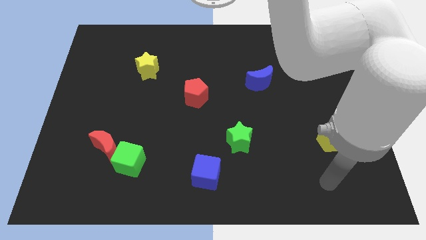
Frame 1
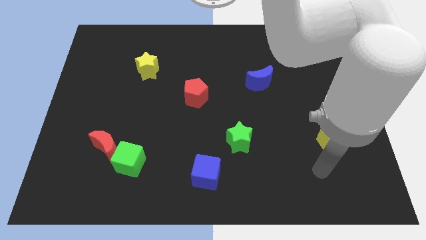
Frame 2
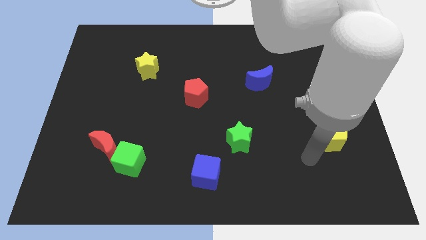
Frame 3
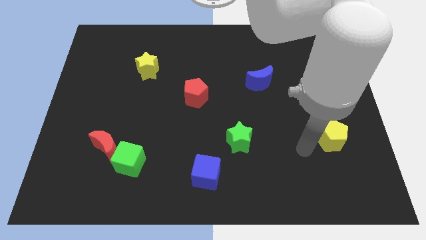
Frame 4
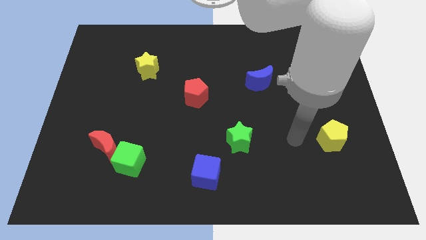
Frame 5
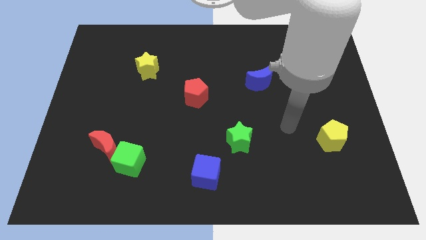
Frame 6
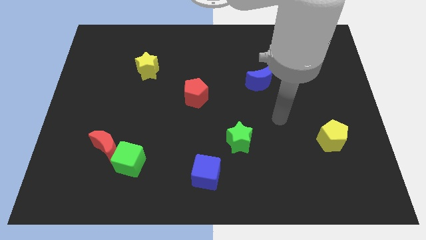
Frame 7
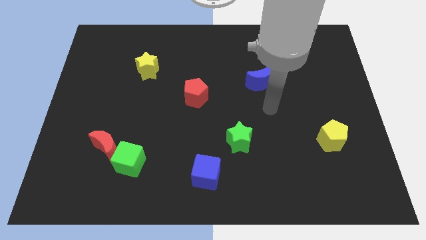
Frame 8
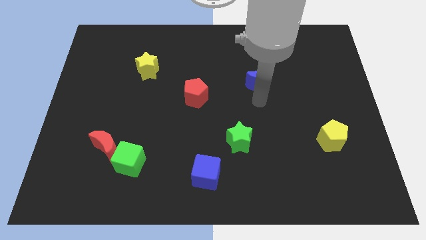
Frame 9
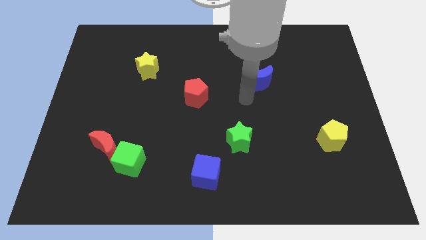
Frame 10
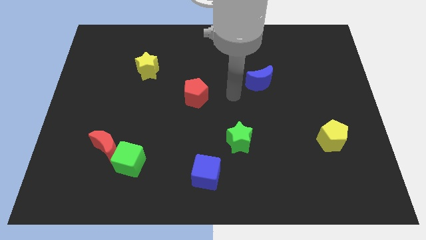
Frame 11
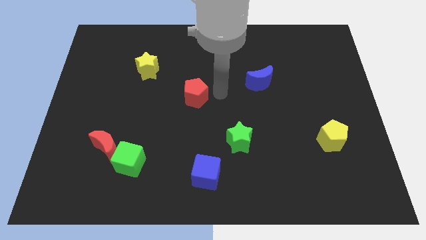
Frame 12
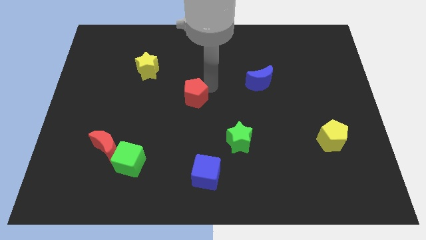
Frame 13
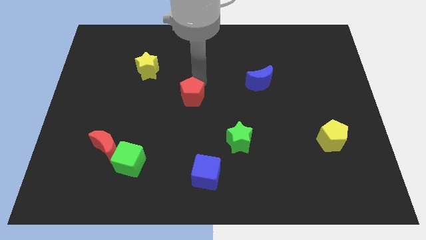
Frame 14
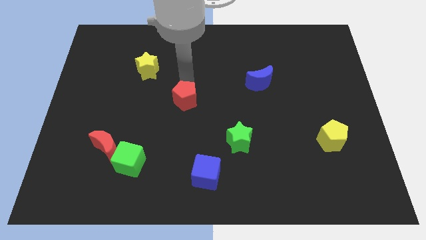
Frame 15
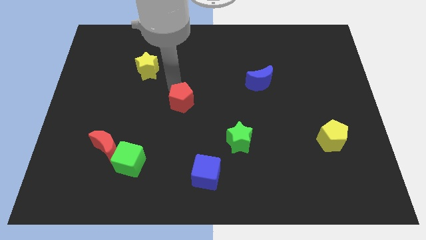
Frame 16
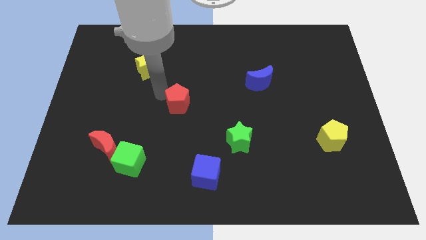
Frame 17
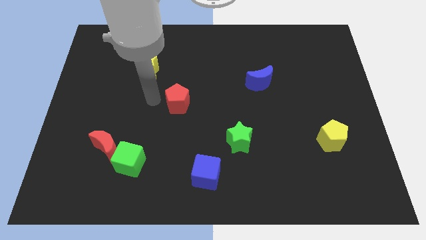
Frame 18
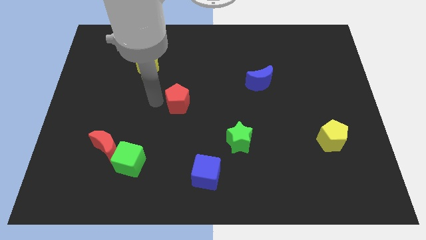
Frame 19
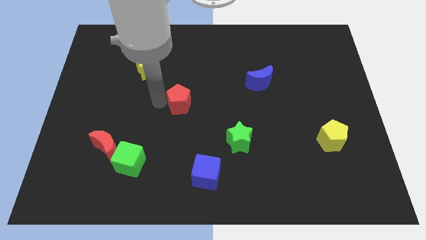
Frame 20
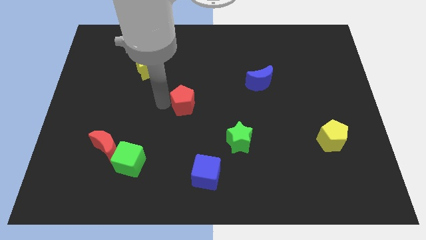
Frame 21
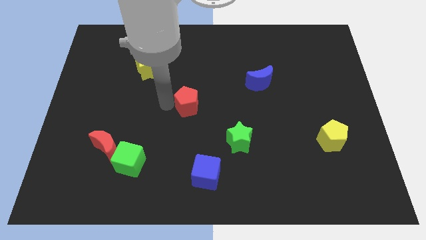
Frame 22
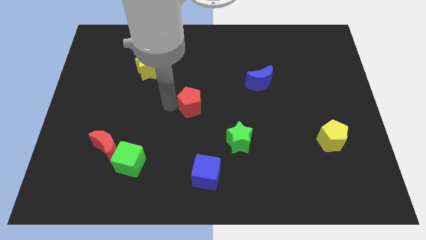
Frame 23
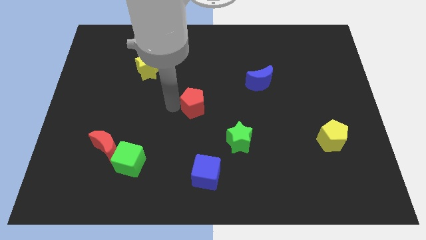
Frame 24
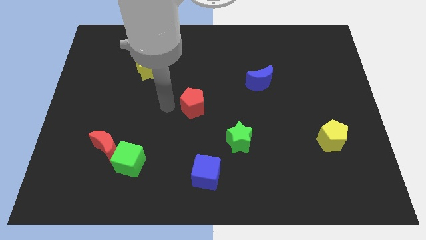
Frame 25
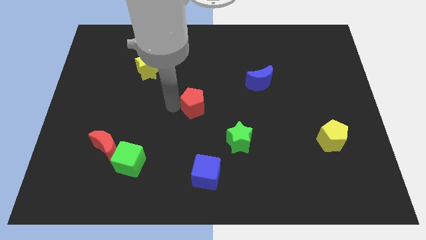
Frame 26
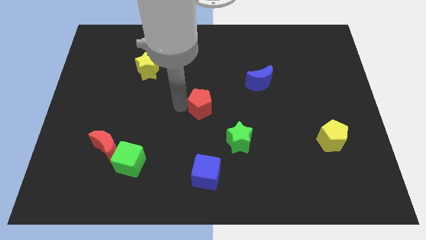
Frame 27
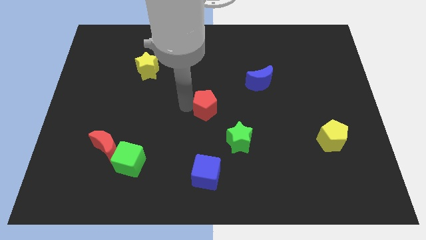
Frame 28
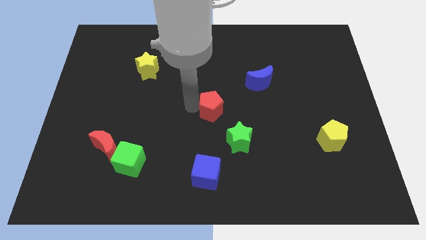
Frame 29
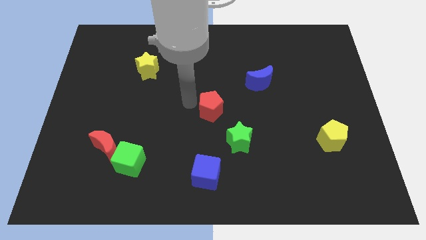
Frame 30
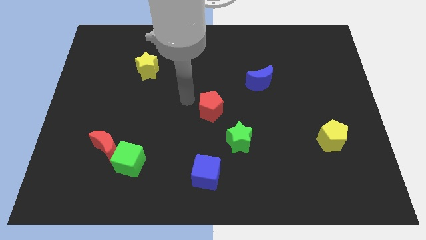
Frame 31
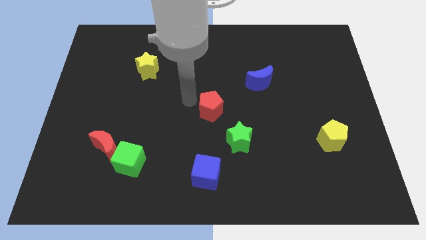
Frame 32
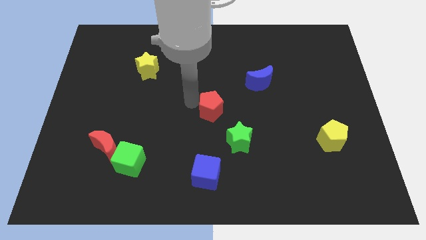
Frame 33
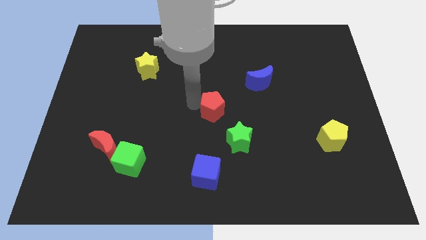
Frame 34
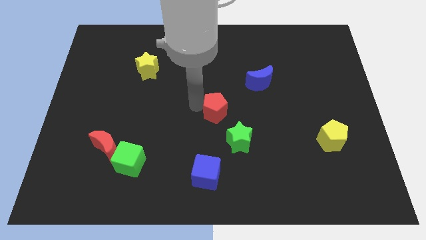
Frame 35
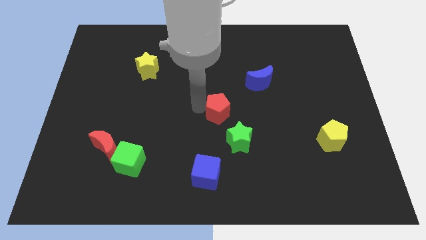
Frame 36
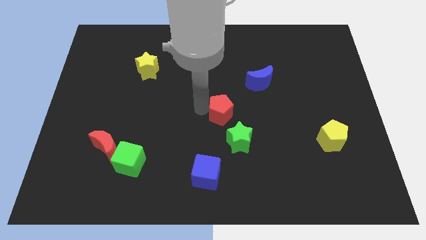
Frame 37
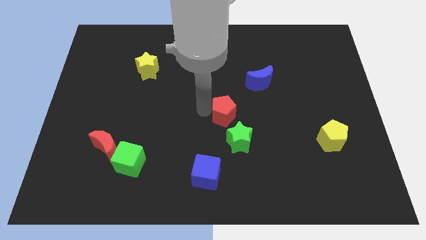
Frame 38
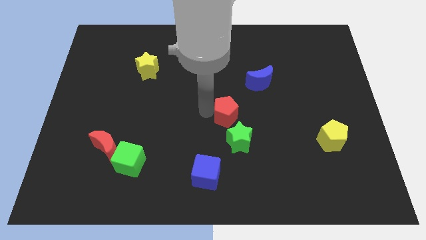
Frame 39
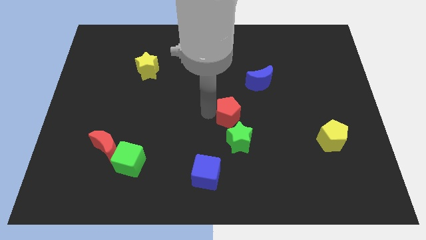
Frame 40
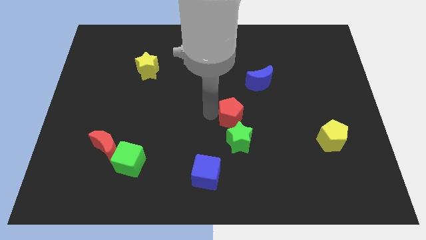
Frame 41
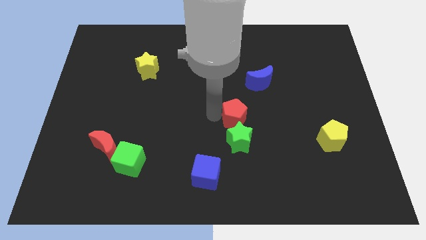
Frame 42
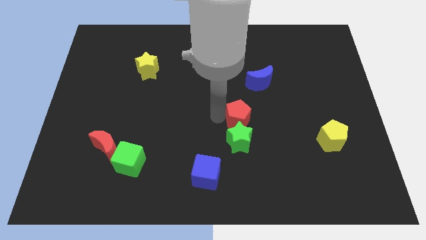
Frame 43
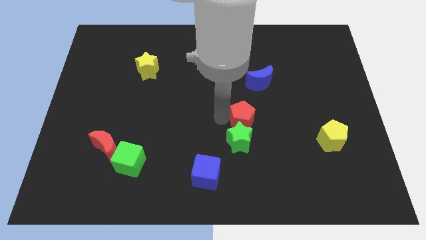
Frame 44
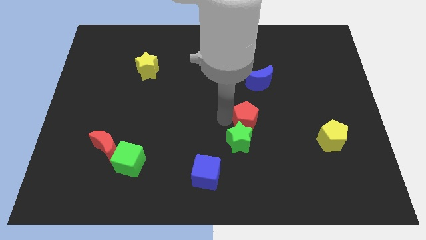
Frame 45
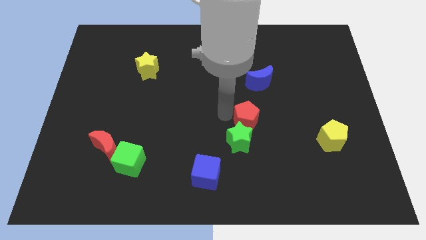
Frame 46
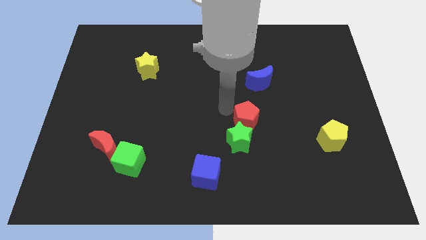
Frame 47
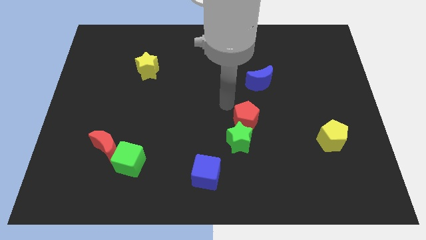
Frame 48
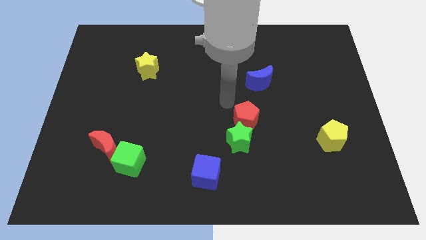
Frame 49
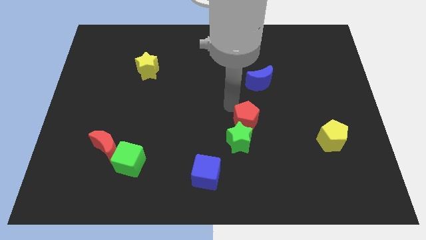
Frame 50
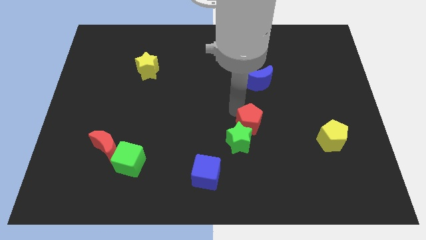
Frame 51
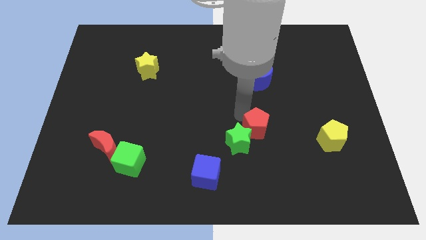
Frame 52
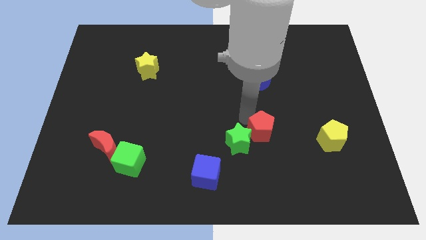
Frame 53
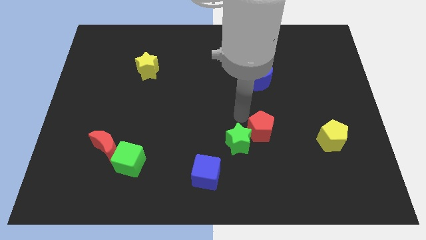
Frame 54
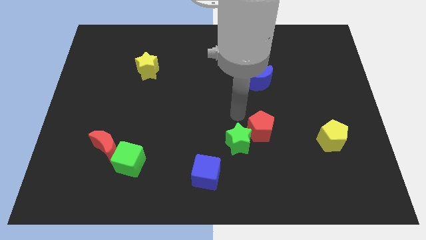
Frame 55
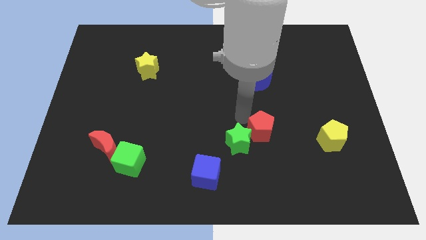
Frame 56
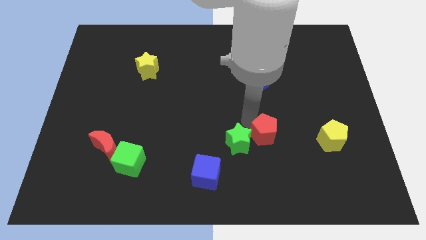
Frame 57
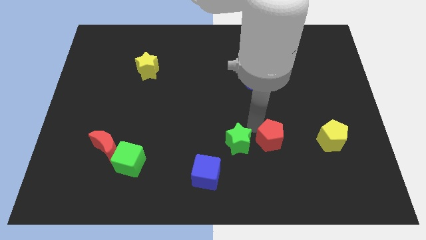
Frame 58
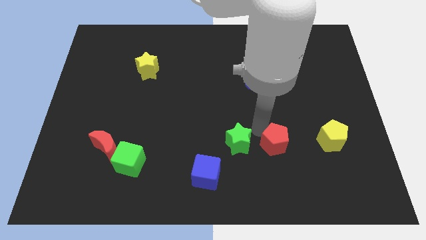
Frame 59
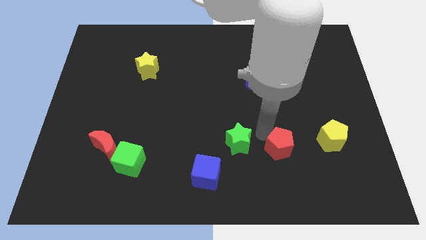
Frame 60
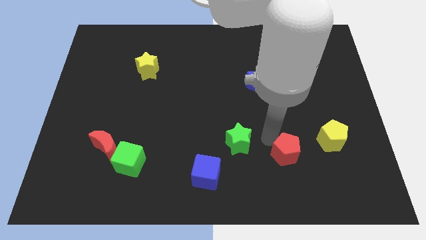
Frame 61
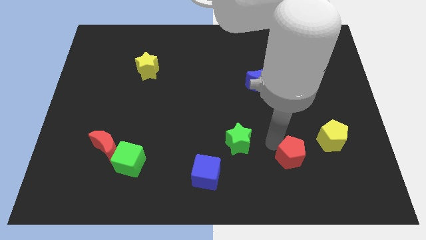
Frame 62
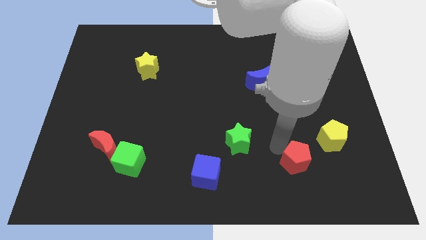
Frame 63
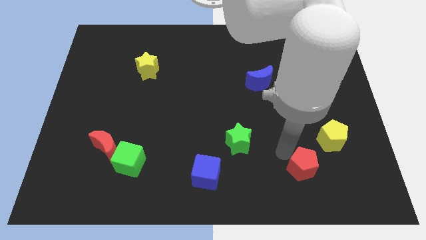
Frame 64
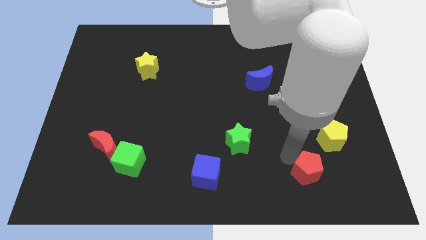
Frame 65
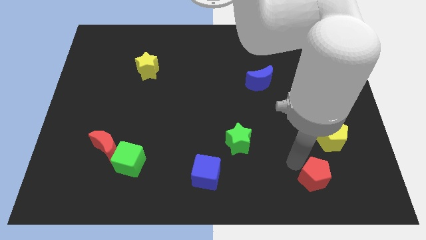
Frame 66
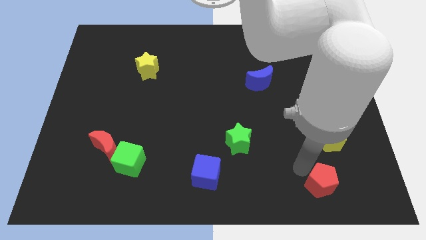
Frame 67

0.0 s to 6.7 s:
move the red pentagon below the yellow pentagon

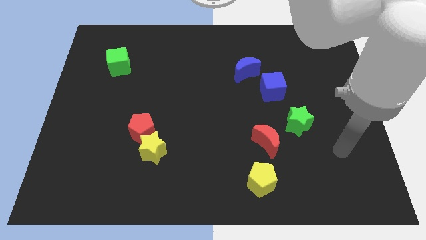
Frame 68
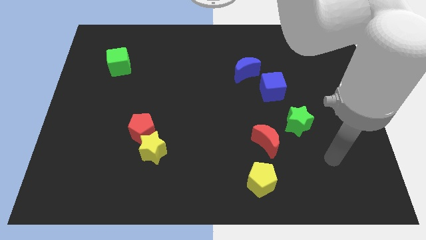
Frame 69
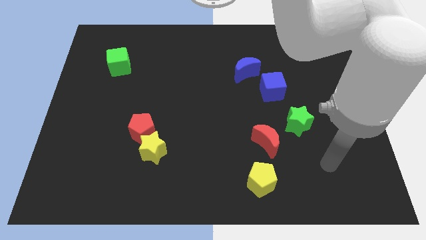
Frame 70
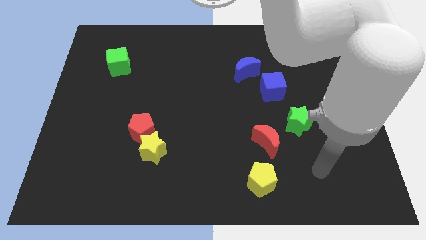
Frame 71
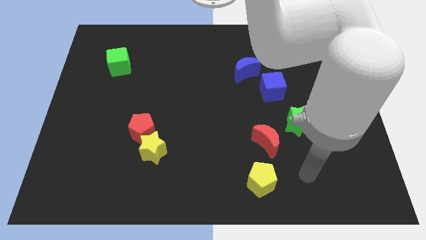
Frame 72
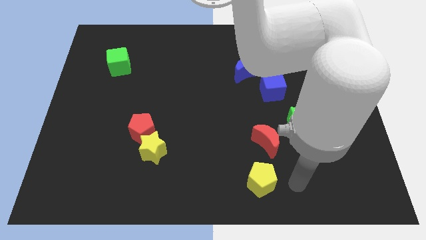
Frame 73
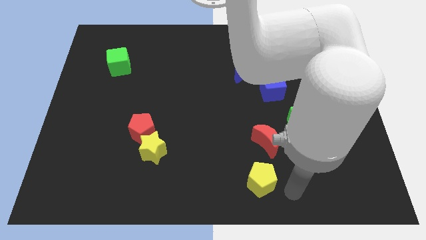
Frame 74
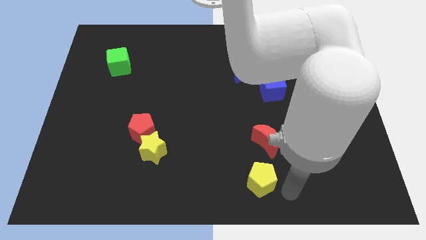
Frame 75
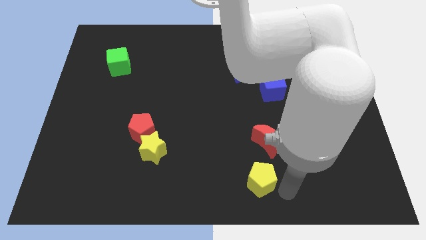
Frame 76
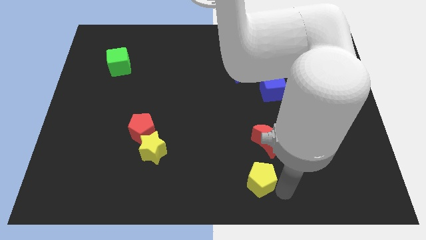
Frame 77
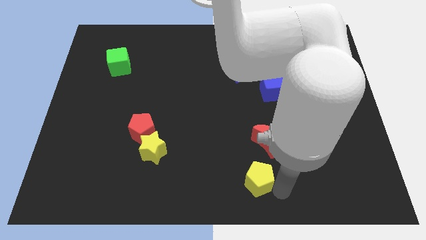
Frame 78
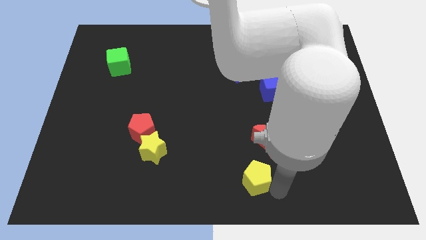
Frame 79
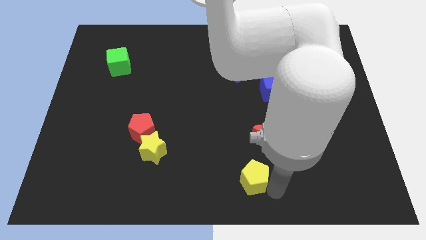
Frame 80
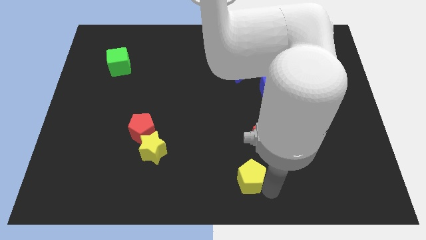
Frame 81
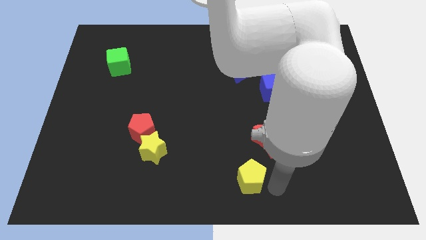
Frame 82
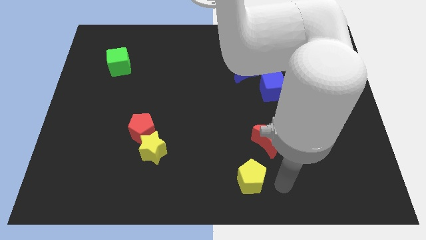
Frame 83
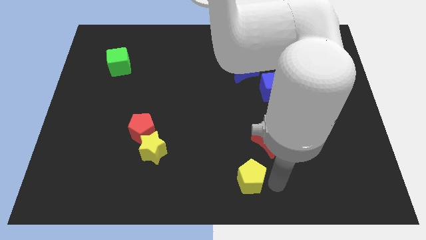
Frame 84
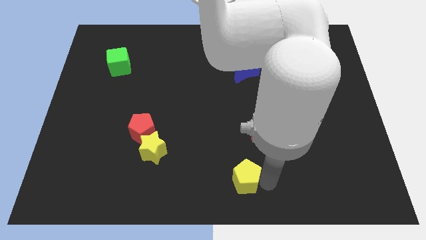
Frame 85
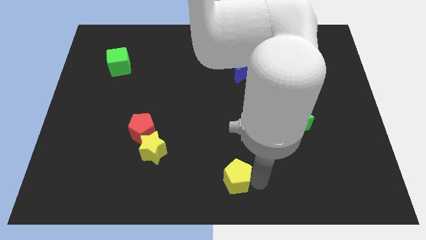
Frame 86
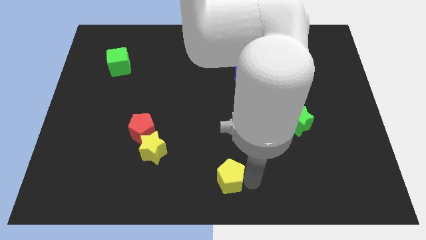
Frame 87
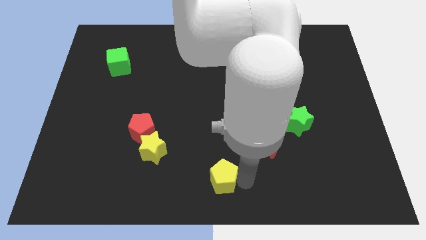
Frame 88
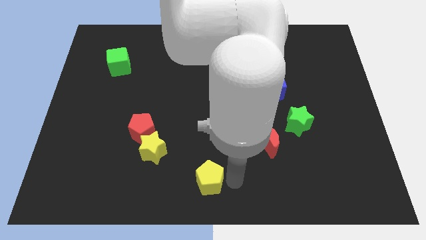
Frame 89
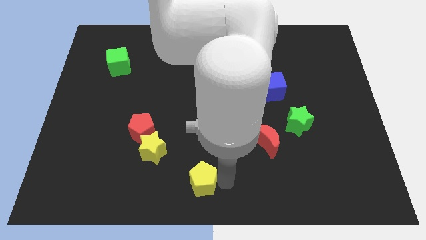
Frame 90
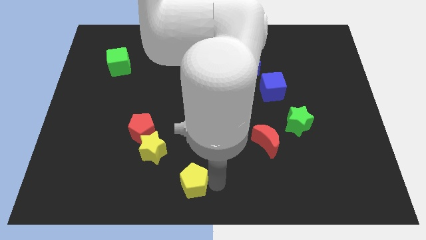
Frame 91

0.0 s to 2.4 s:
move the yellow pentagon diagonally down and to the right of the yellow star
